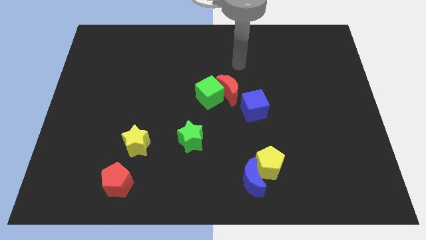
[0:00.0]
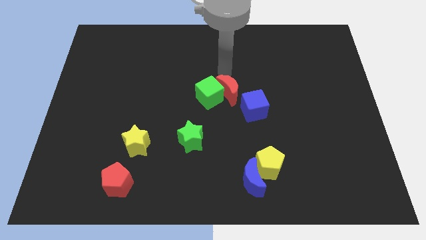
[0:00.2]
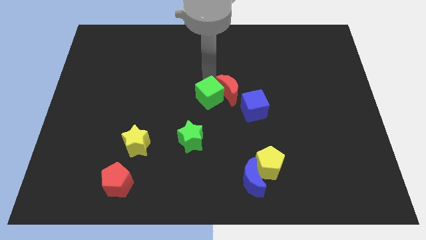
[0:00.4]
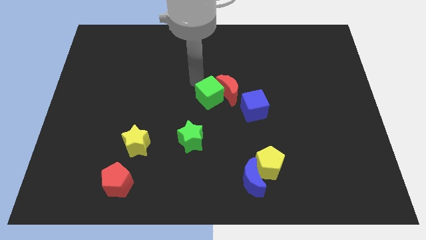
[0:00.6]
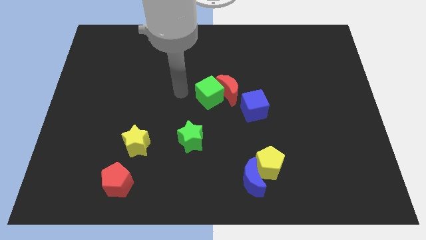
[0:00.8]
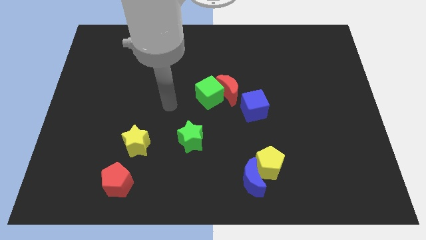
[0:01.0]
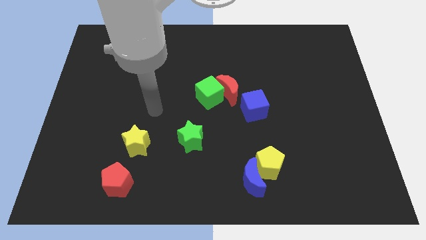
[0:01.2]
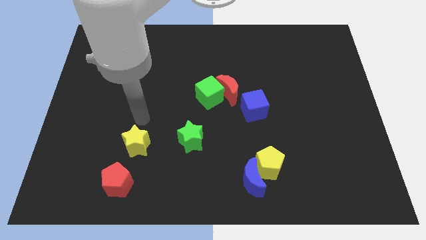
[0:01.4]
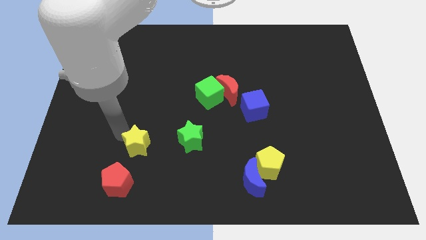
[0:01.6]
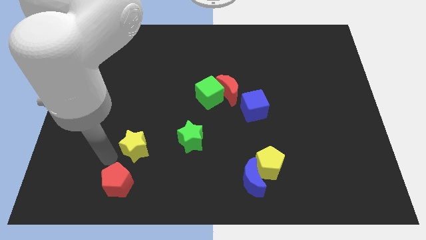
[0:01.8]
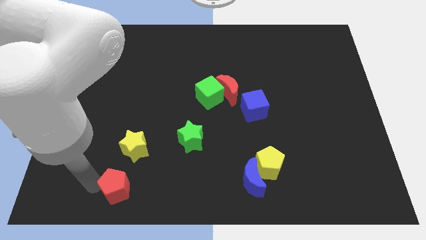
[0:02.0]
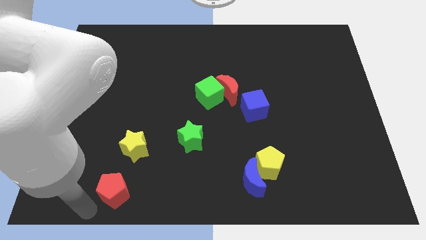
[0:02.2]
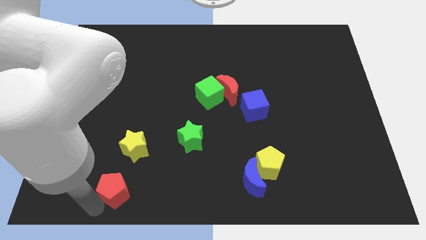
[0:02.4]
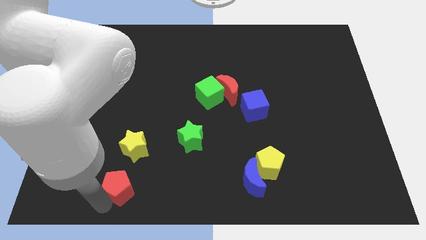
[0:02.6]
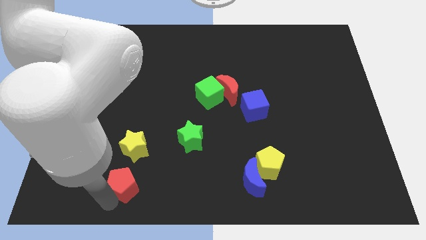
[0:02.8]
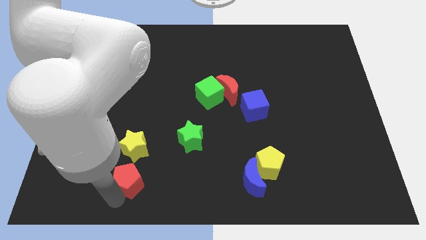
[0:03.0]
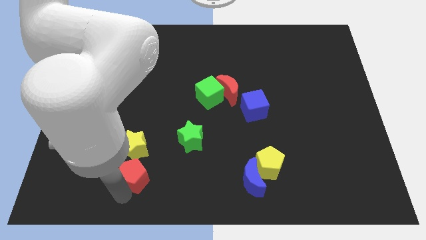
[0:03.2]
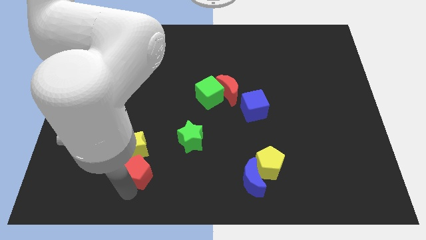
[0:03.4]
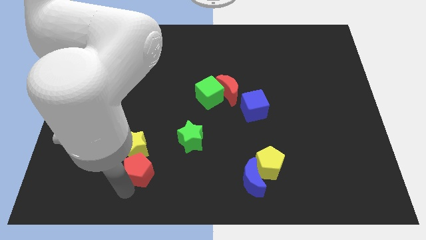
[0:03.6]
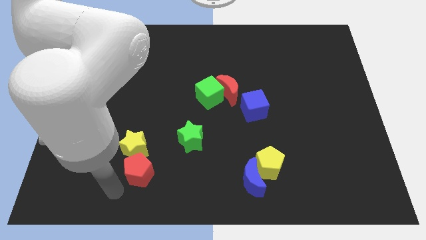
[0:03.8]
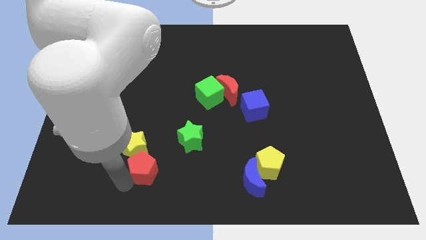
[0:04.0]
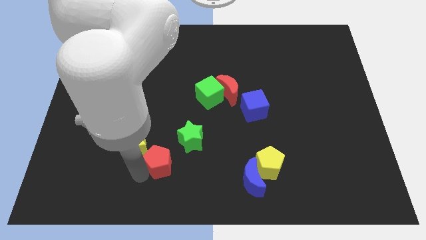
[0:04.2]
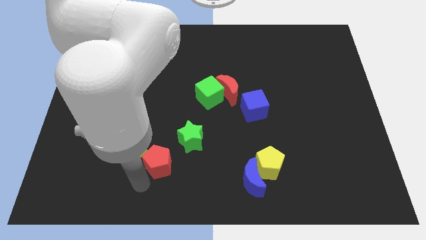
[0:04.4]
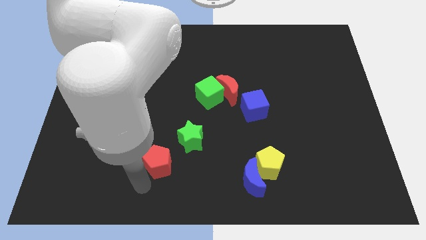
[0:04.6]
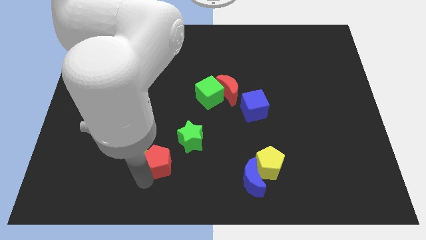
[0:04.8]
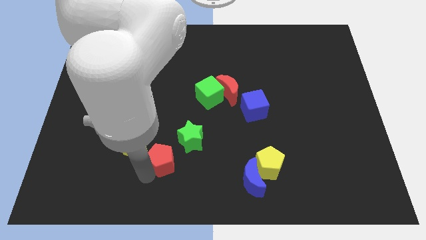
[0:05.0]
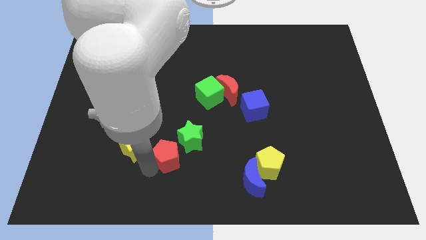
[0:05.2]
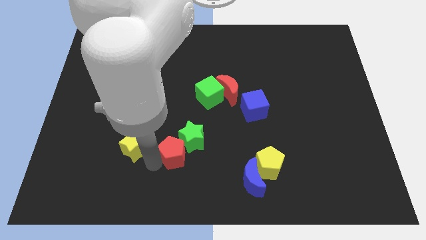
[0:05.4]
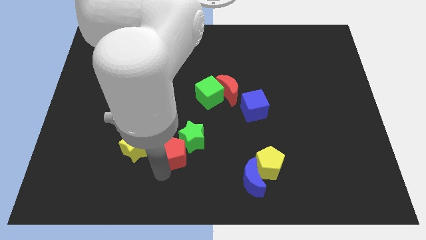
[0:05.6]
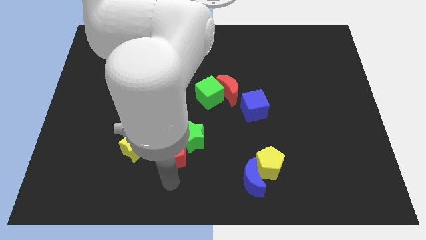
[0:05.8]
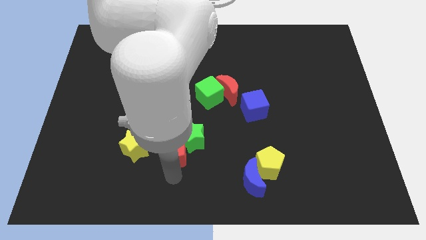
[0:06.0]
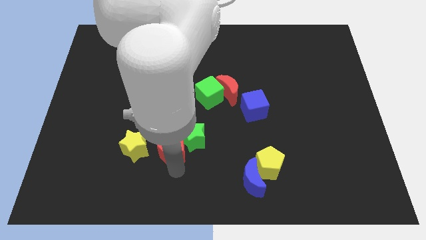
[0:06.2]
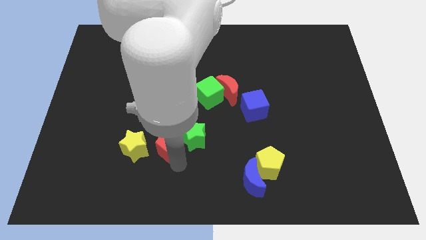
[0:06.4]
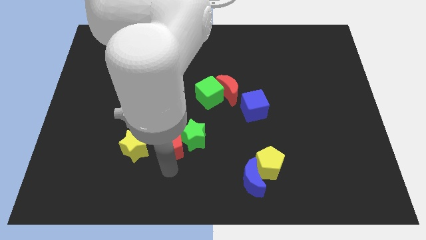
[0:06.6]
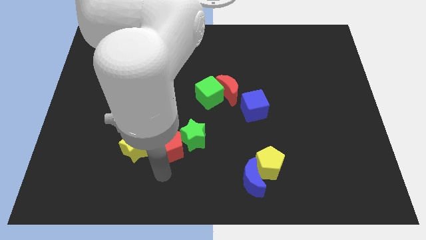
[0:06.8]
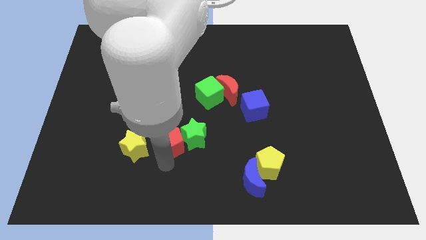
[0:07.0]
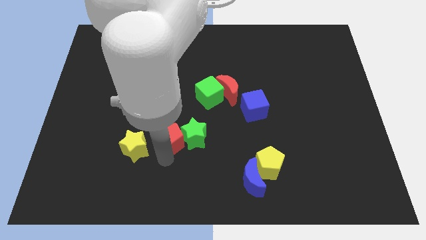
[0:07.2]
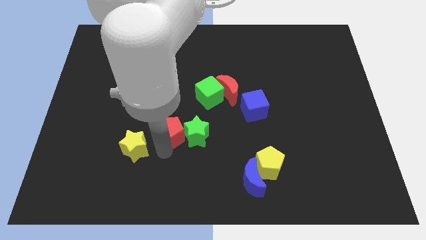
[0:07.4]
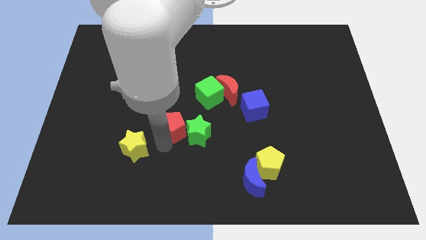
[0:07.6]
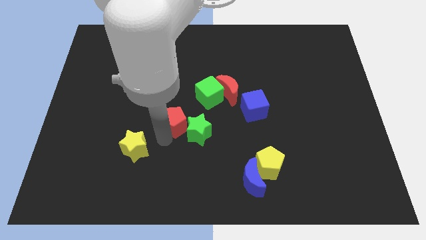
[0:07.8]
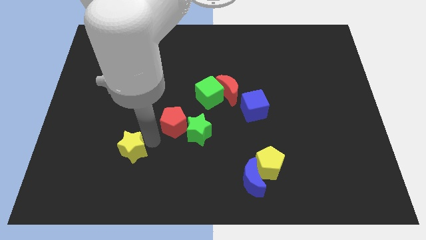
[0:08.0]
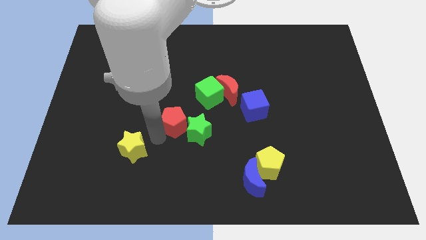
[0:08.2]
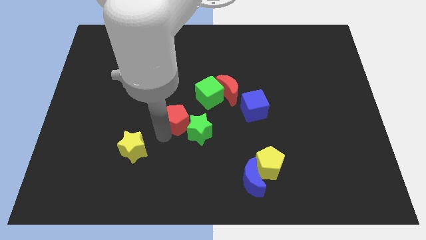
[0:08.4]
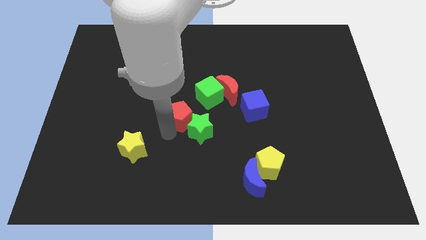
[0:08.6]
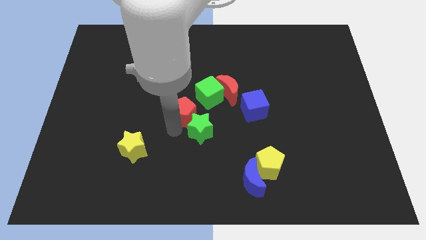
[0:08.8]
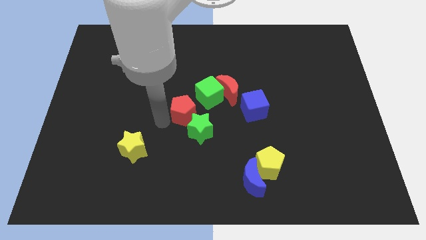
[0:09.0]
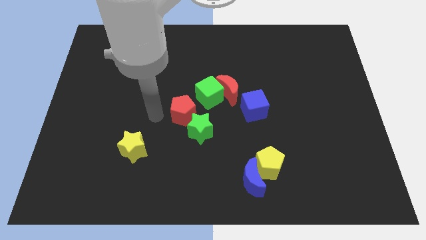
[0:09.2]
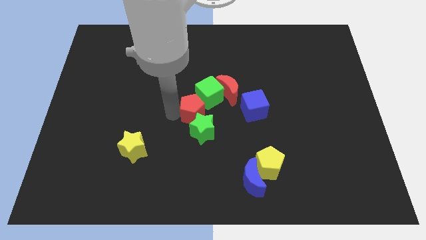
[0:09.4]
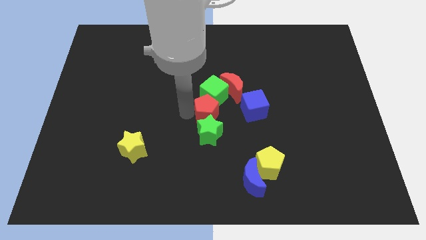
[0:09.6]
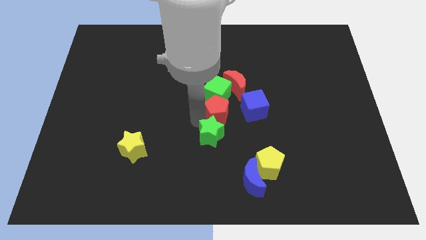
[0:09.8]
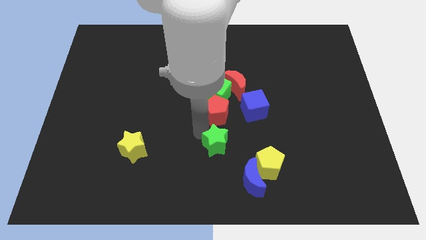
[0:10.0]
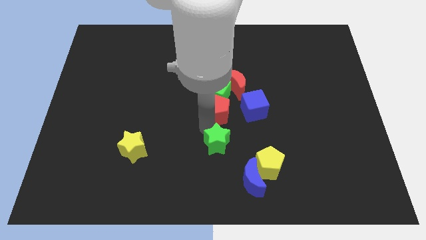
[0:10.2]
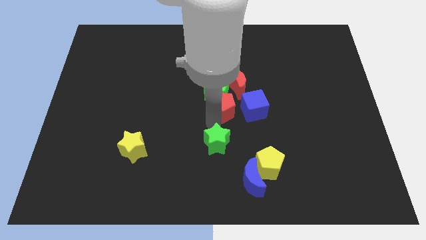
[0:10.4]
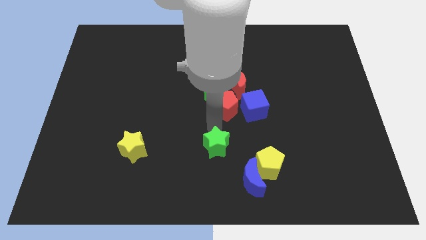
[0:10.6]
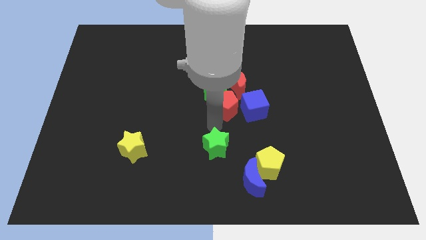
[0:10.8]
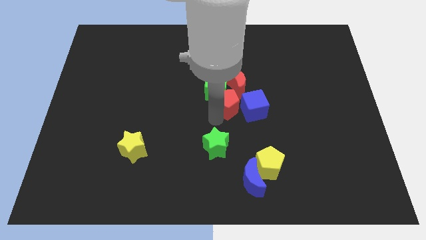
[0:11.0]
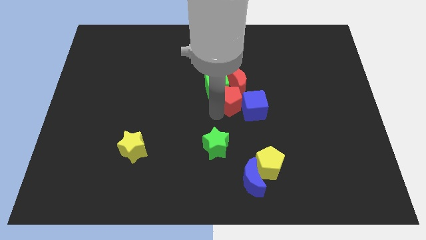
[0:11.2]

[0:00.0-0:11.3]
slide the red pentagon next to the red moon

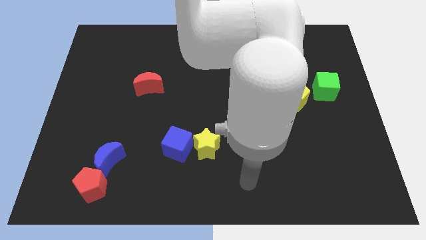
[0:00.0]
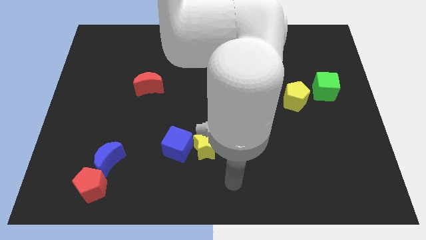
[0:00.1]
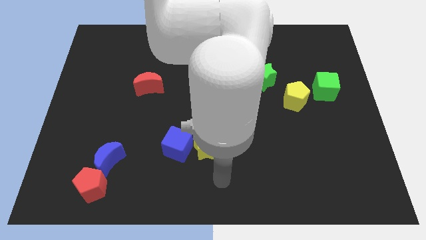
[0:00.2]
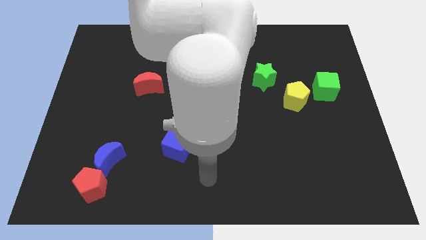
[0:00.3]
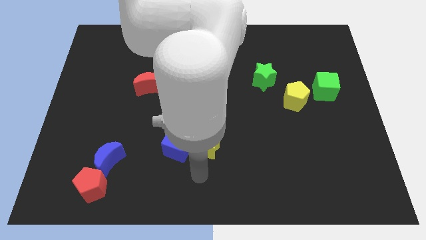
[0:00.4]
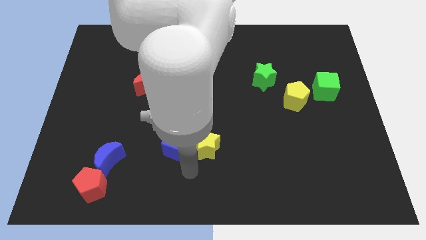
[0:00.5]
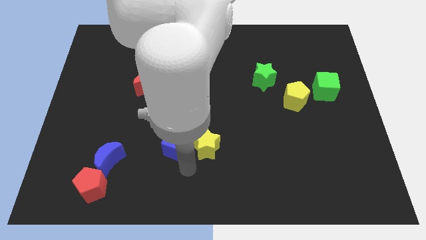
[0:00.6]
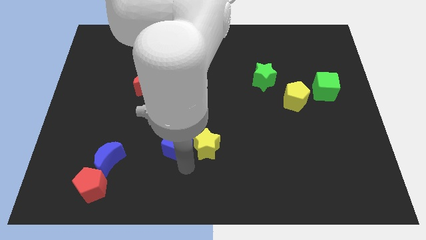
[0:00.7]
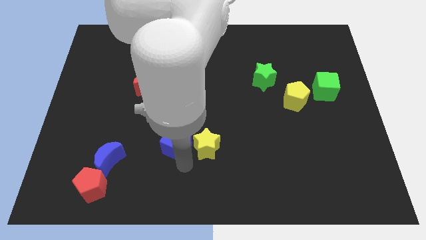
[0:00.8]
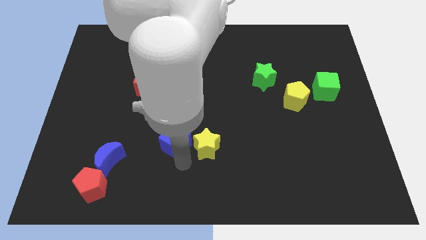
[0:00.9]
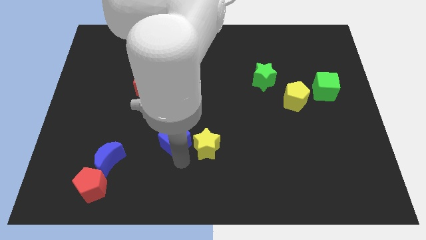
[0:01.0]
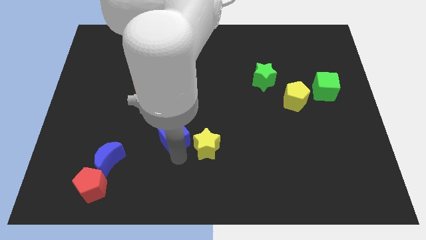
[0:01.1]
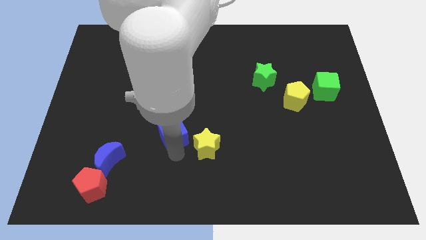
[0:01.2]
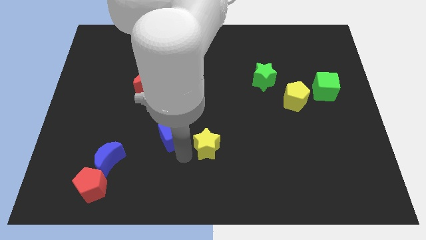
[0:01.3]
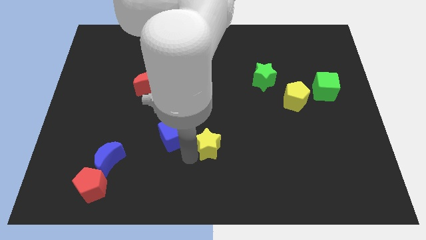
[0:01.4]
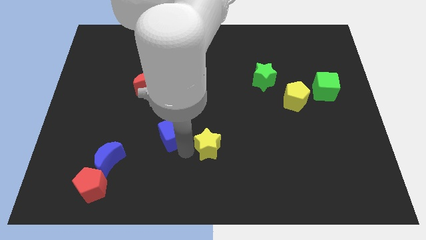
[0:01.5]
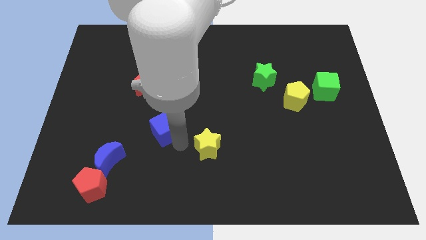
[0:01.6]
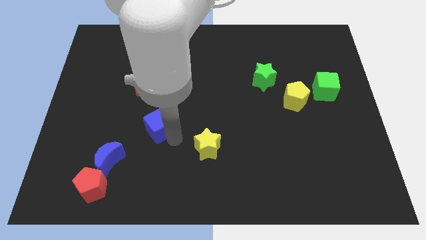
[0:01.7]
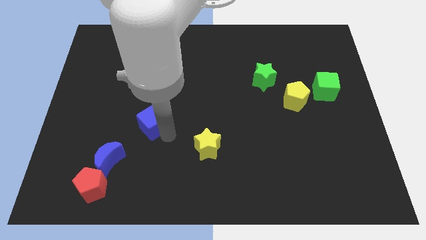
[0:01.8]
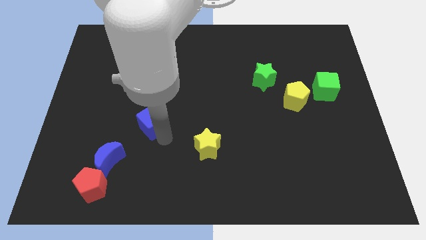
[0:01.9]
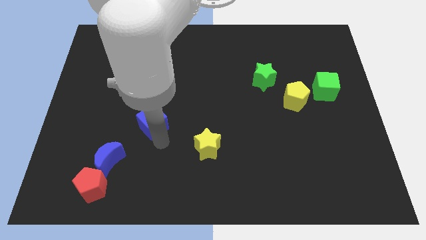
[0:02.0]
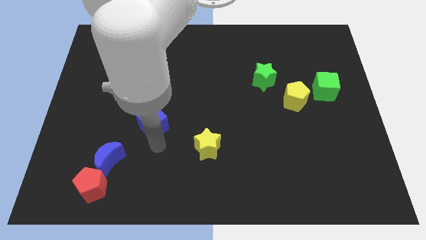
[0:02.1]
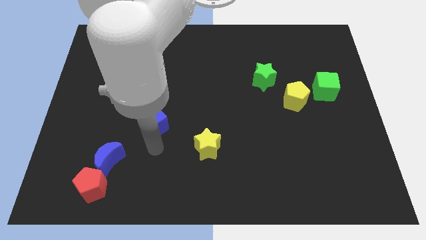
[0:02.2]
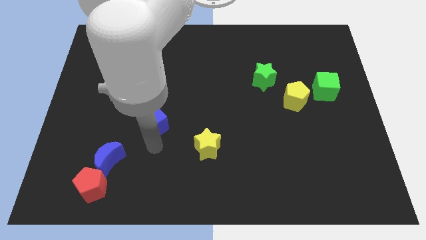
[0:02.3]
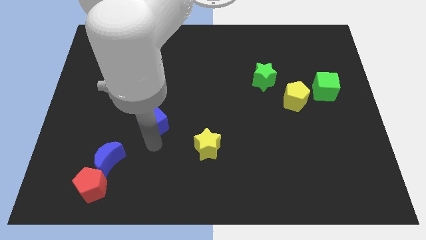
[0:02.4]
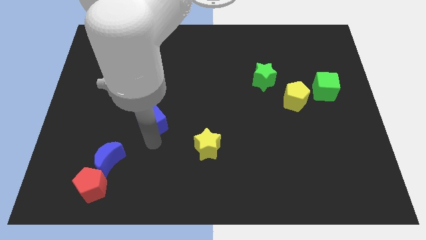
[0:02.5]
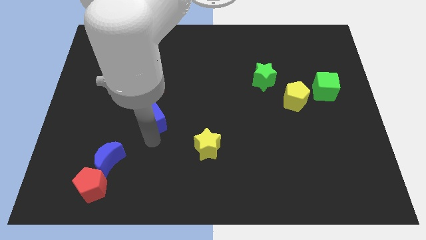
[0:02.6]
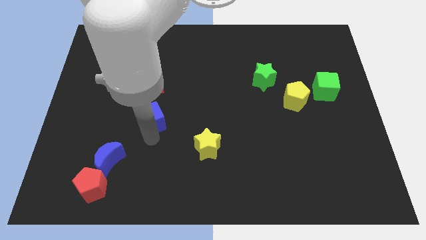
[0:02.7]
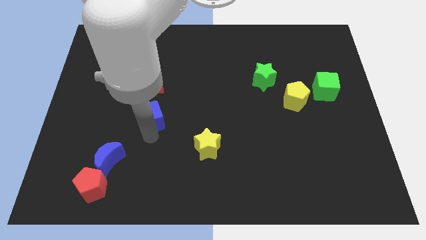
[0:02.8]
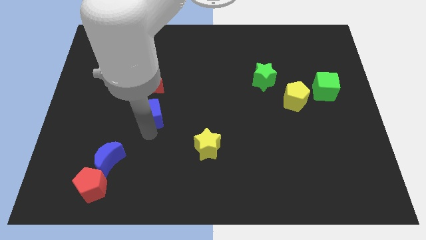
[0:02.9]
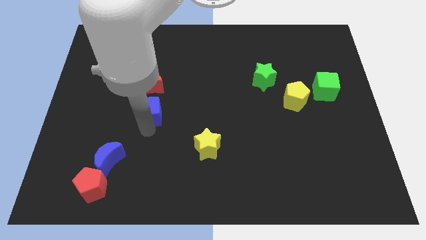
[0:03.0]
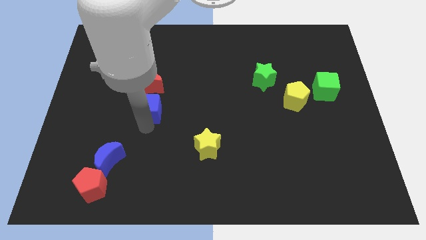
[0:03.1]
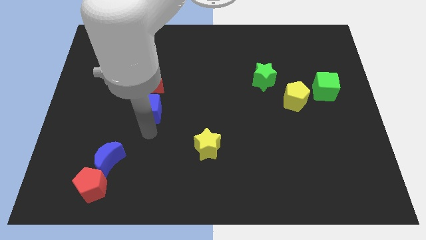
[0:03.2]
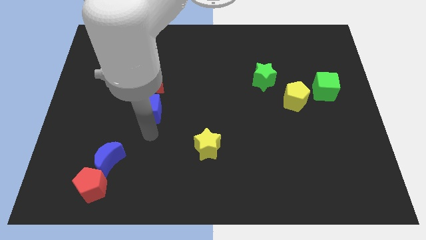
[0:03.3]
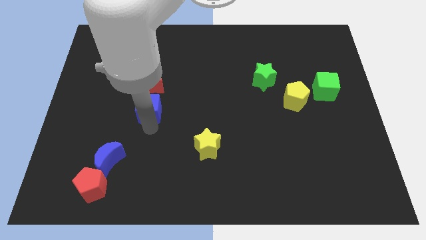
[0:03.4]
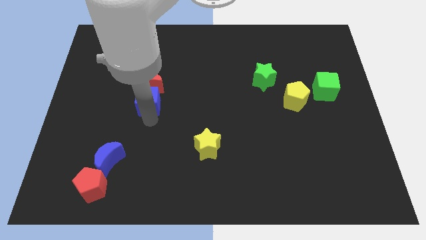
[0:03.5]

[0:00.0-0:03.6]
push the blue cube close to the red moon
